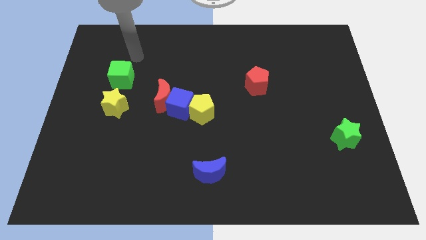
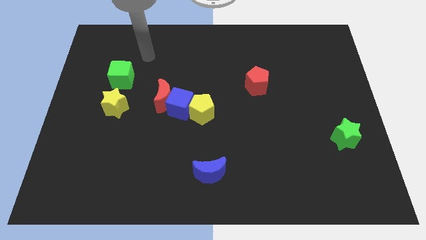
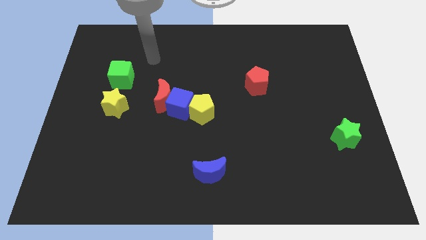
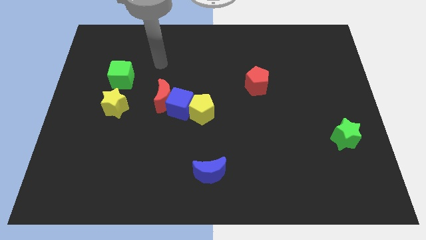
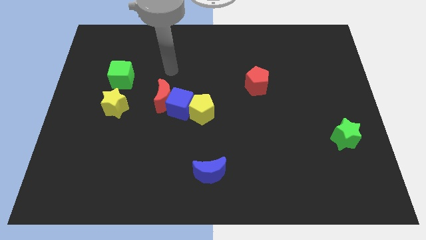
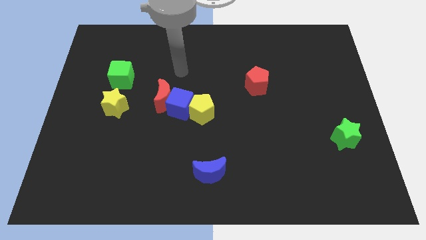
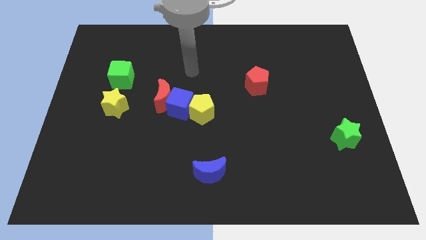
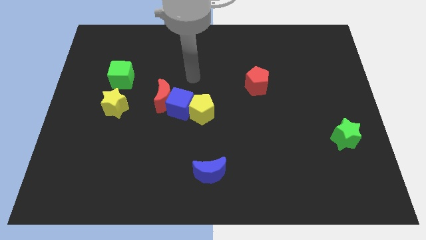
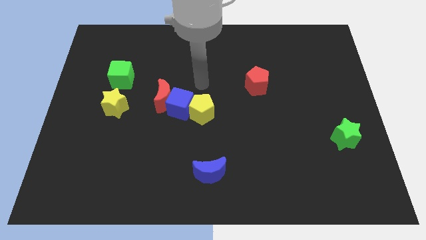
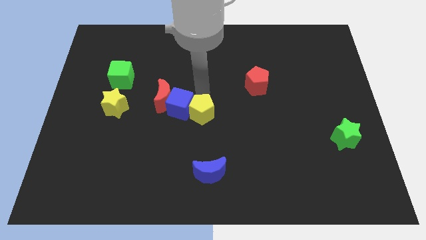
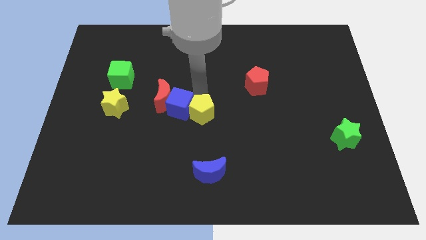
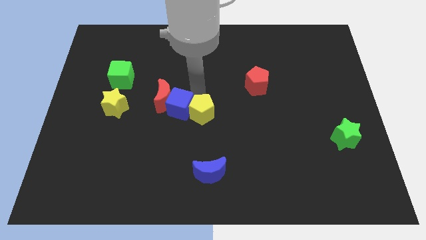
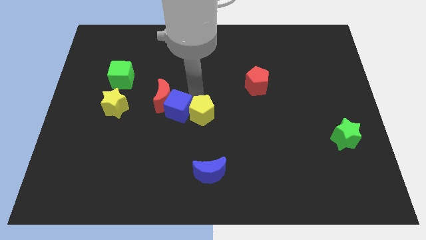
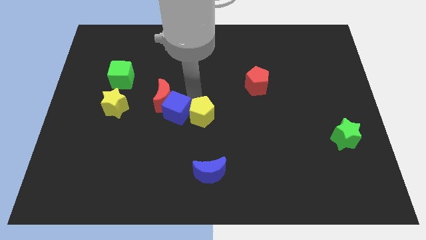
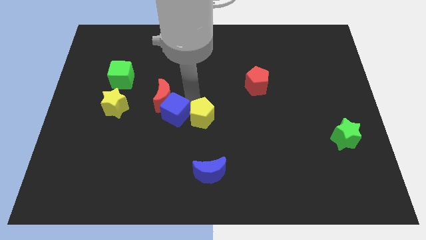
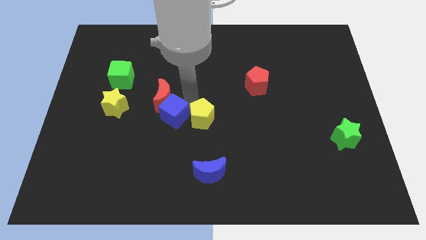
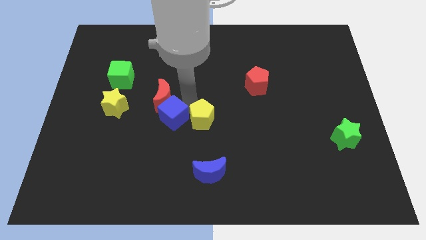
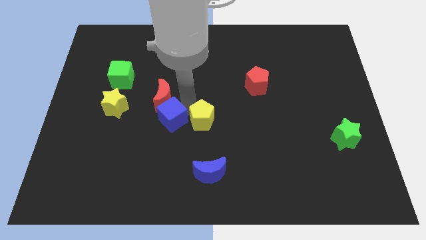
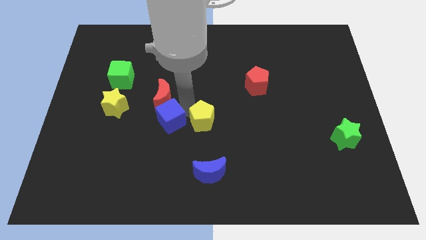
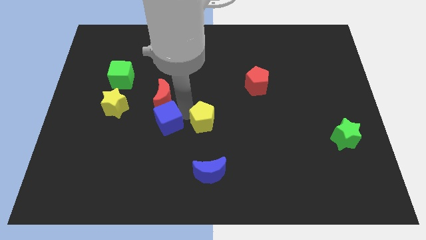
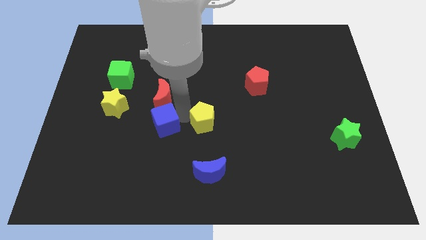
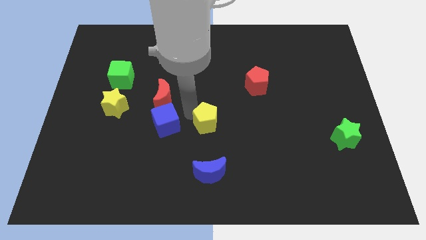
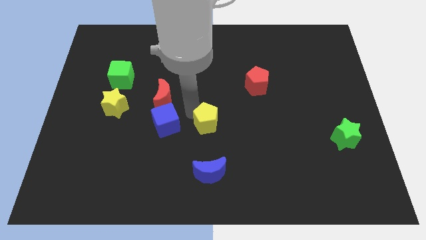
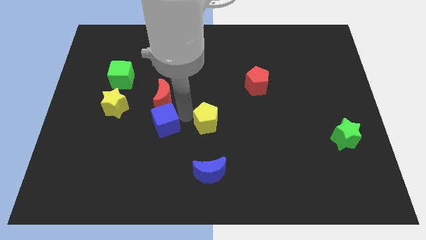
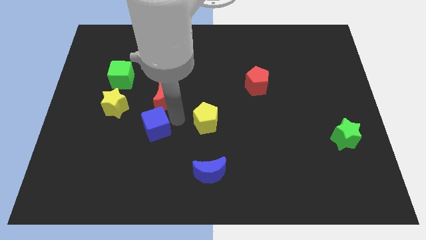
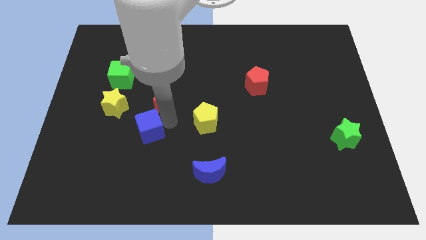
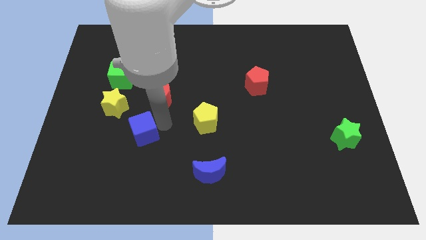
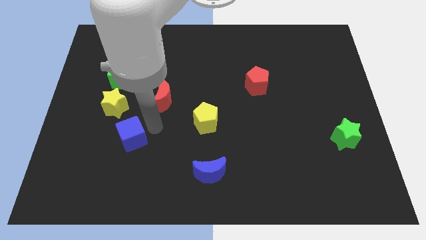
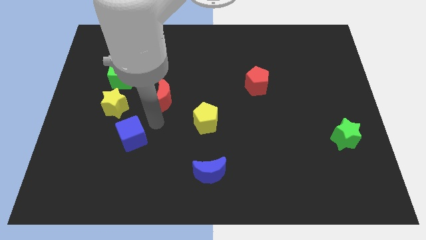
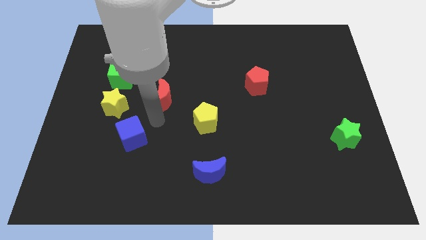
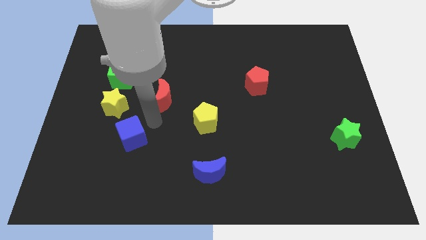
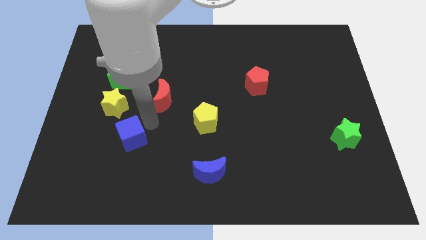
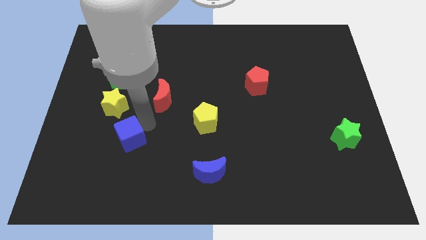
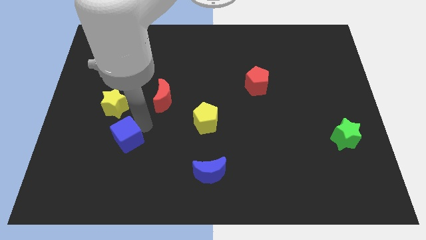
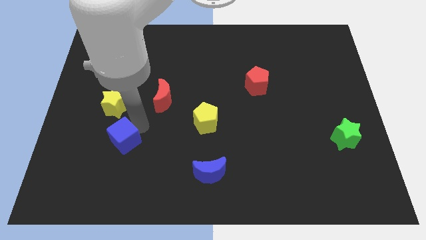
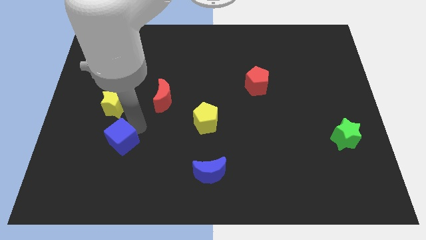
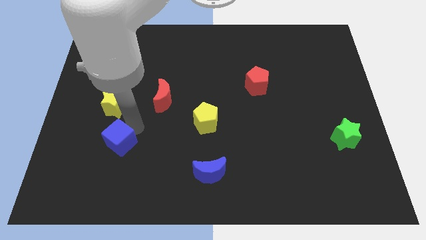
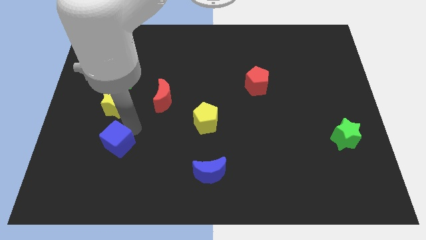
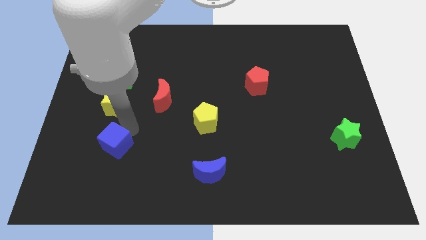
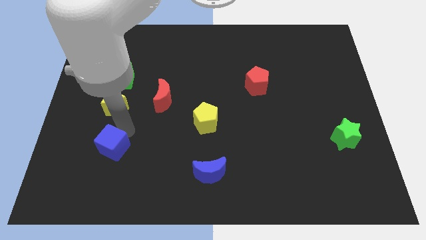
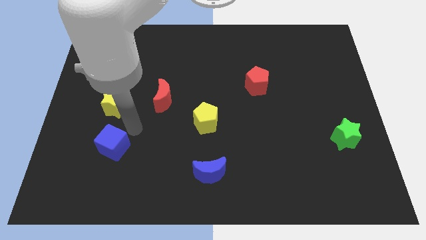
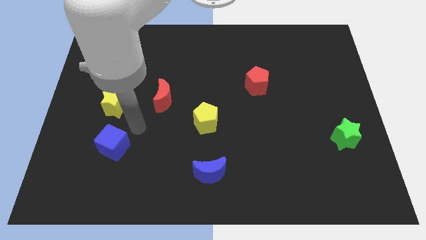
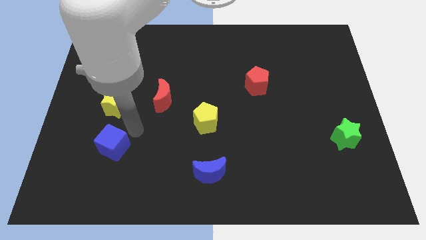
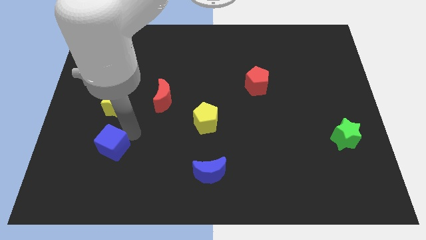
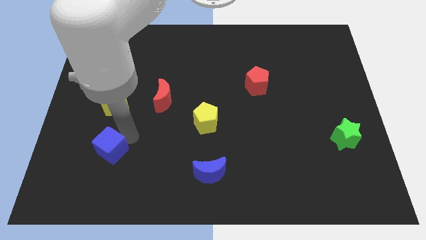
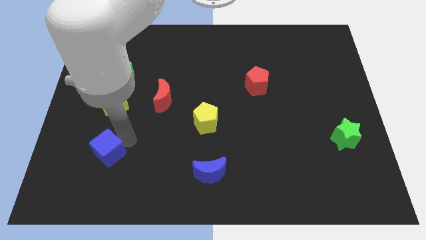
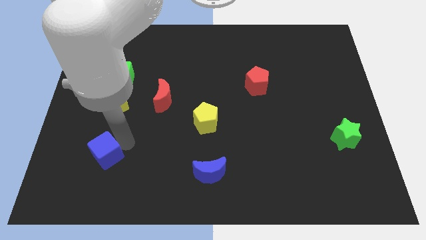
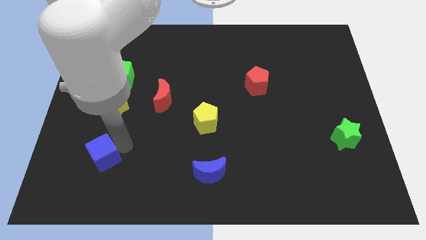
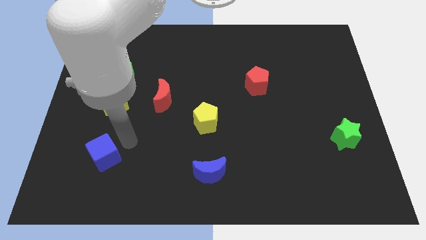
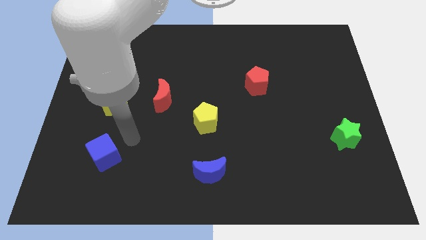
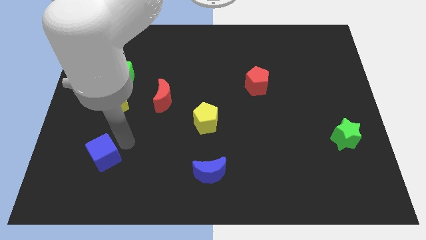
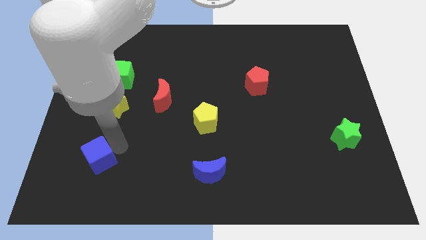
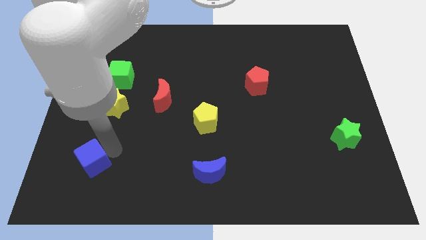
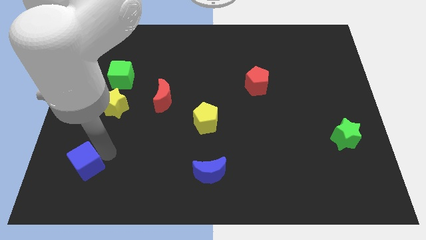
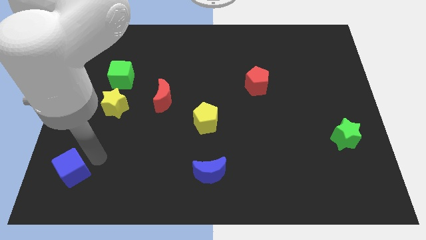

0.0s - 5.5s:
push the blue cube to the bottom left
